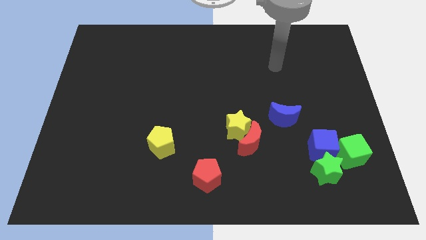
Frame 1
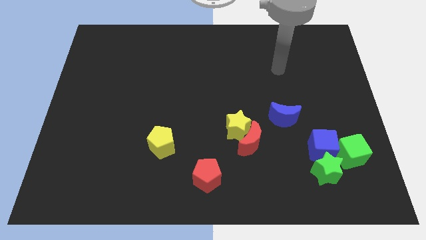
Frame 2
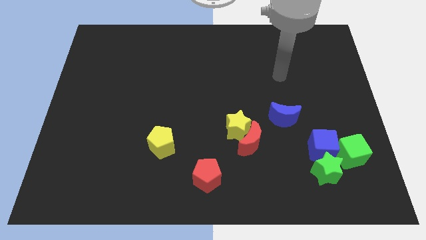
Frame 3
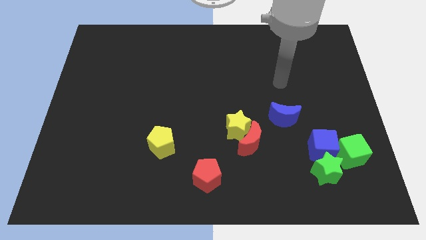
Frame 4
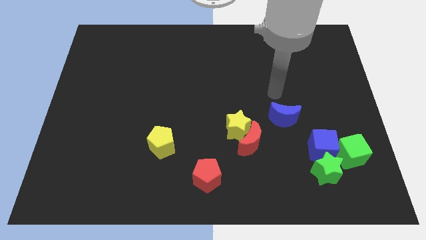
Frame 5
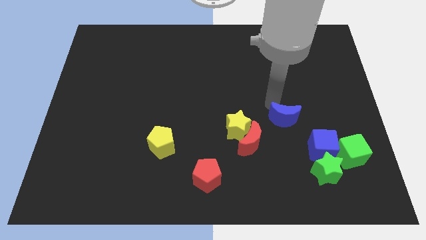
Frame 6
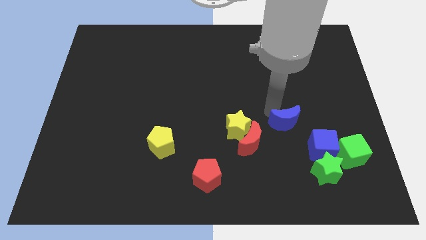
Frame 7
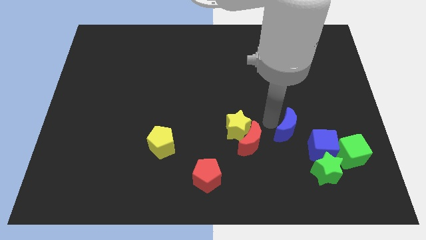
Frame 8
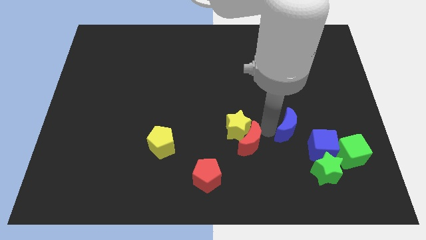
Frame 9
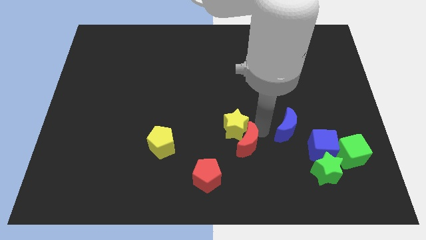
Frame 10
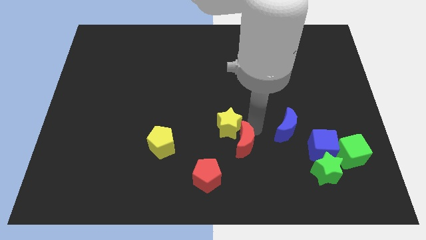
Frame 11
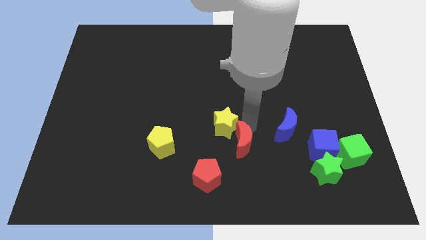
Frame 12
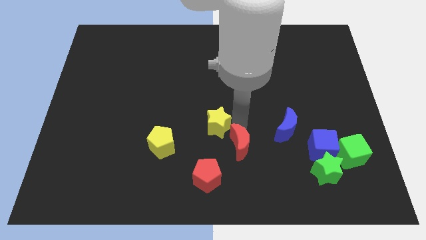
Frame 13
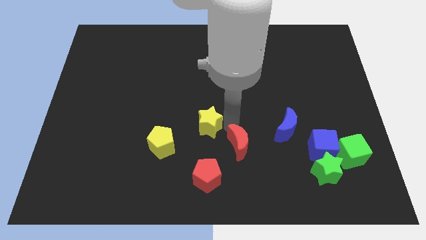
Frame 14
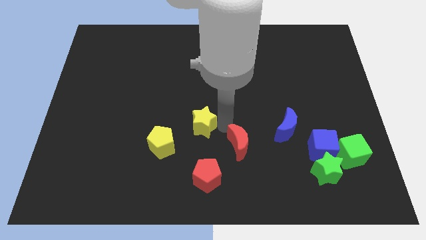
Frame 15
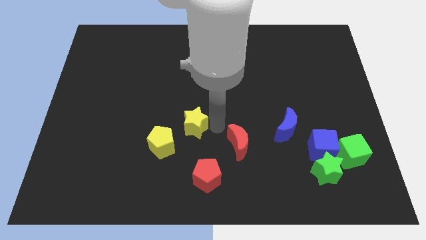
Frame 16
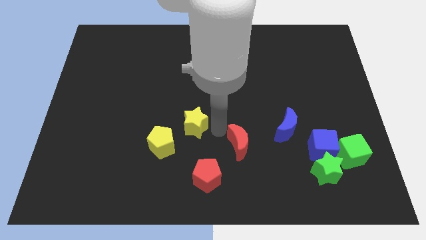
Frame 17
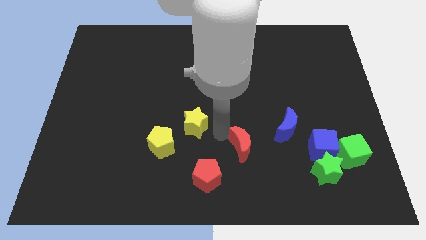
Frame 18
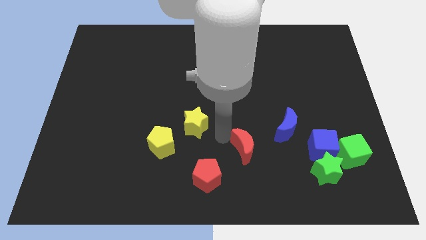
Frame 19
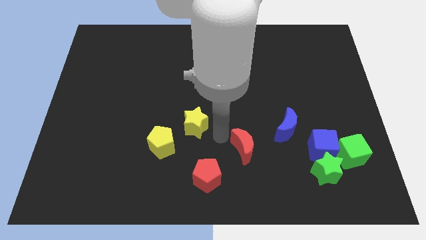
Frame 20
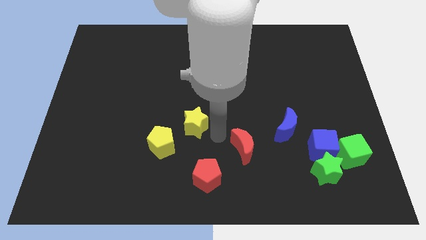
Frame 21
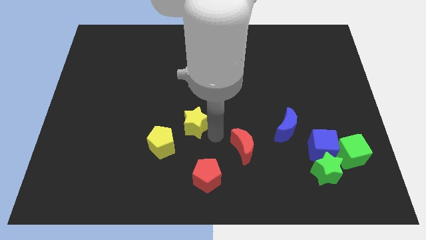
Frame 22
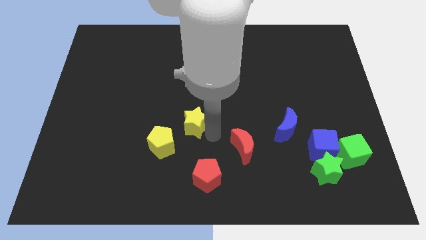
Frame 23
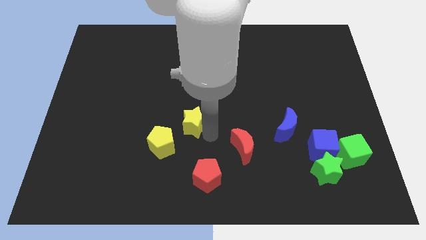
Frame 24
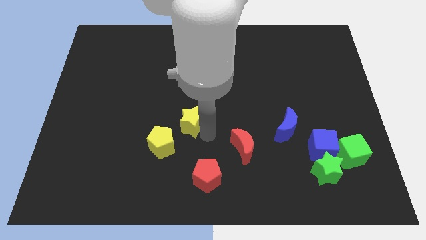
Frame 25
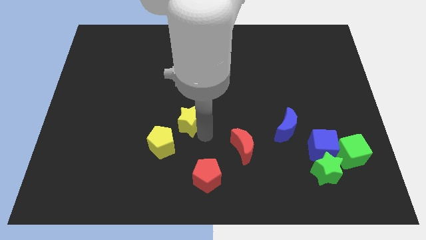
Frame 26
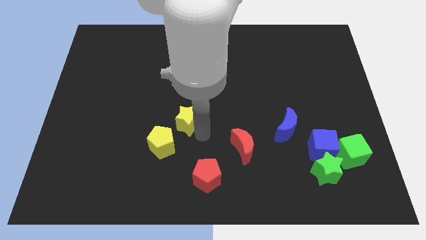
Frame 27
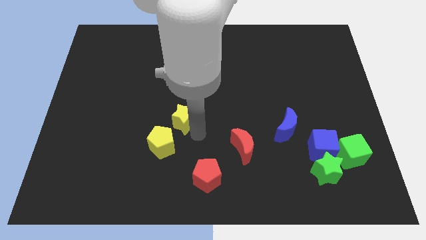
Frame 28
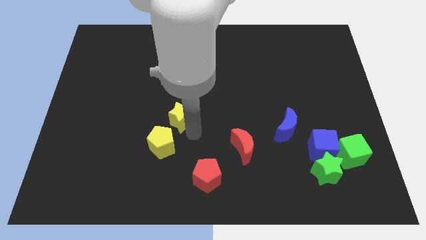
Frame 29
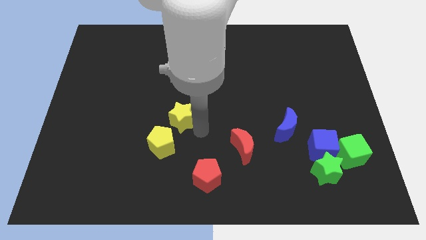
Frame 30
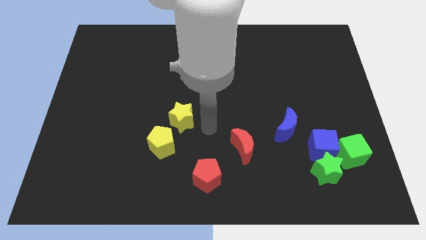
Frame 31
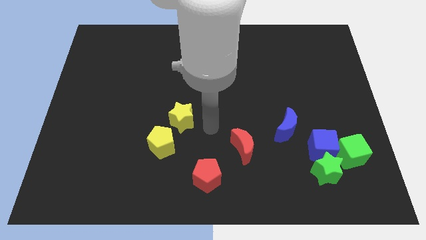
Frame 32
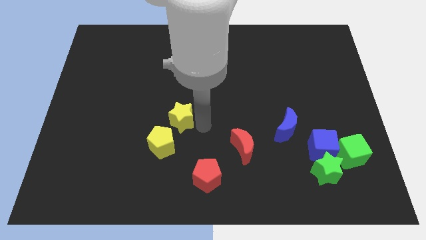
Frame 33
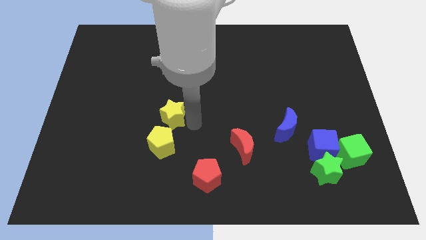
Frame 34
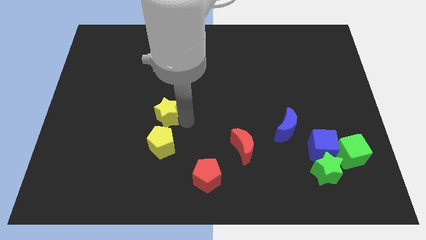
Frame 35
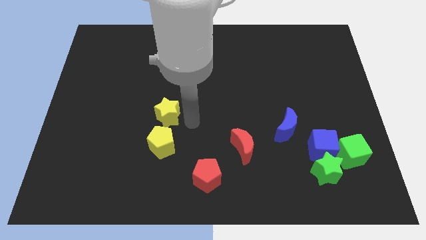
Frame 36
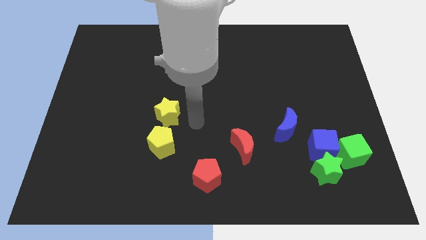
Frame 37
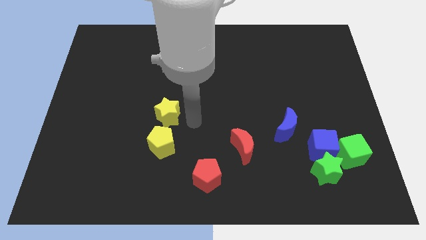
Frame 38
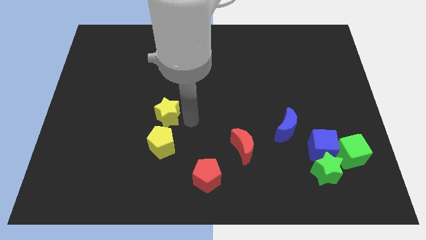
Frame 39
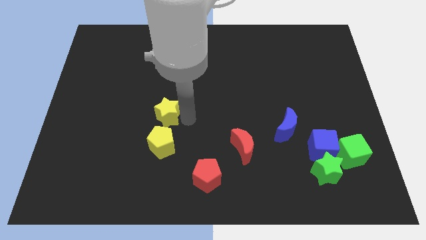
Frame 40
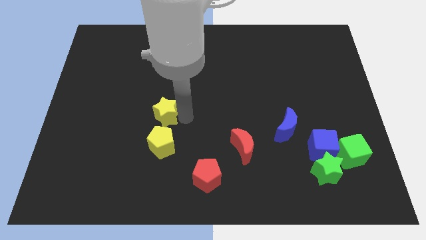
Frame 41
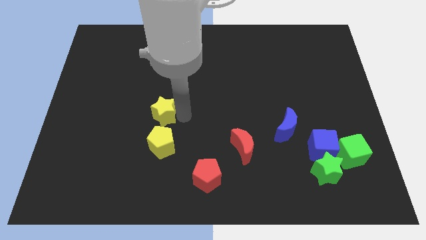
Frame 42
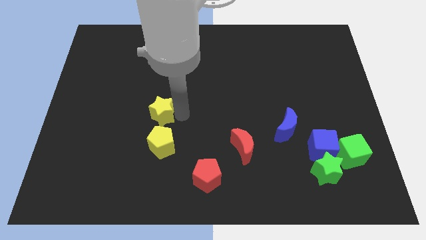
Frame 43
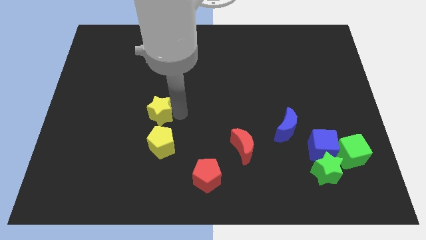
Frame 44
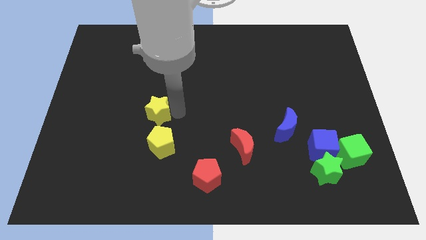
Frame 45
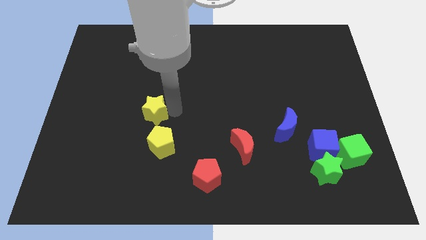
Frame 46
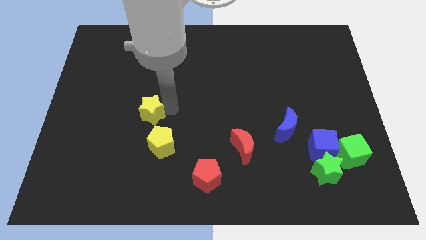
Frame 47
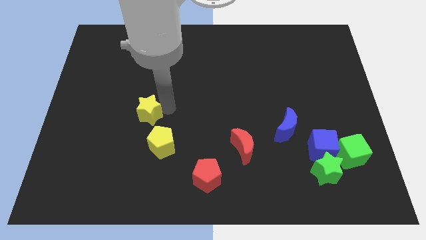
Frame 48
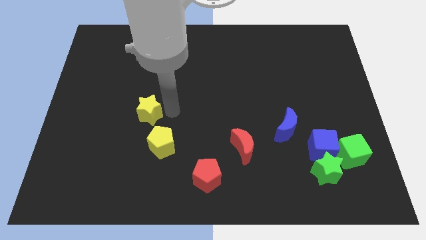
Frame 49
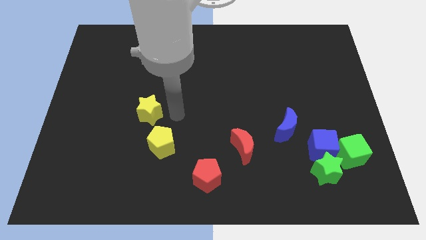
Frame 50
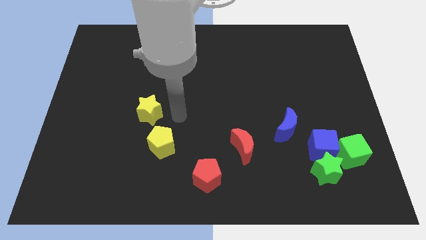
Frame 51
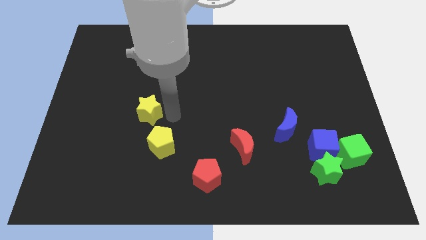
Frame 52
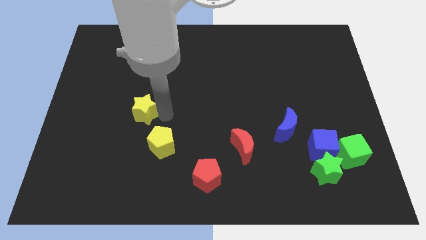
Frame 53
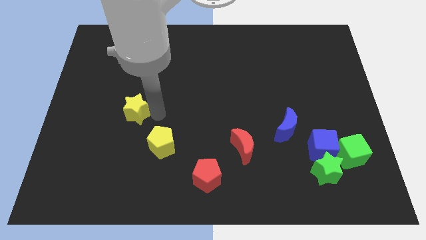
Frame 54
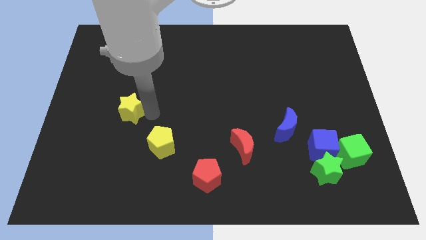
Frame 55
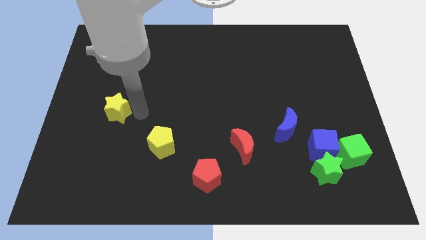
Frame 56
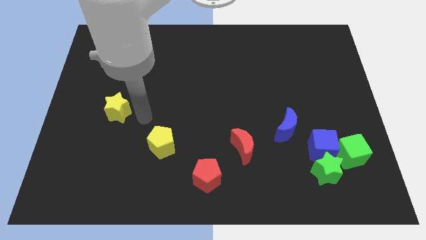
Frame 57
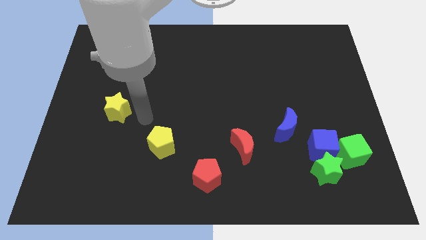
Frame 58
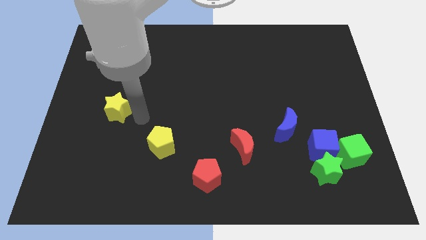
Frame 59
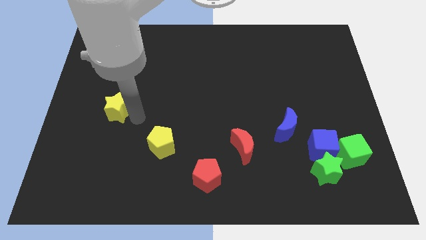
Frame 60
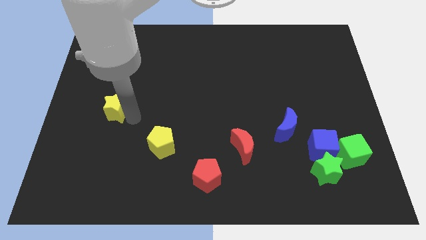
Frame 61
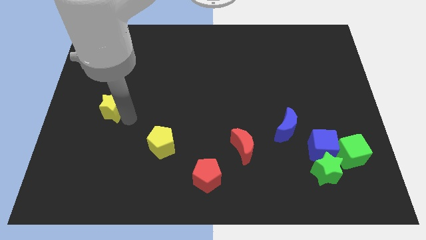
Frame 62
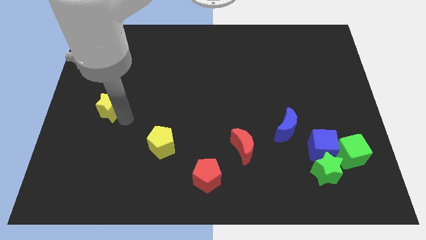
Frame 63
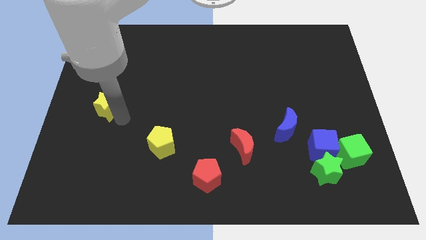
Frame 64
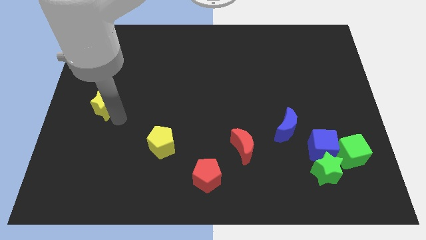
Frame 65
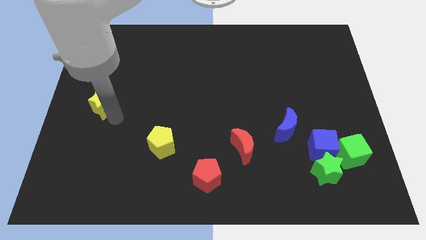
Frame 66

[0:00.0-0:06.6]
put the yellow star to the center left
